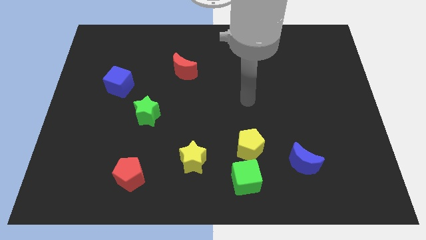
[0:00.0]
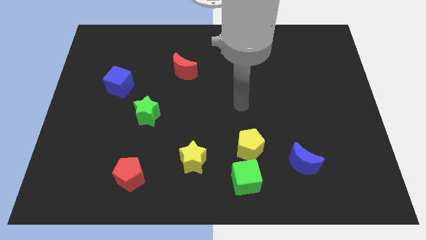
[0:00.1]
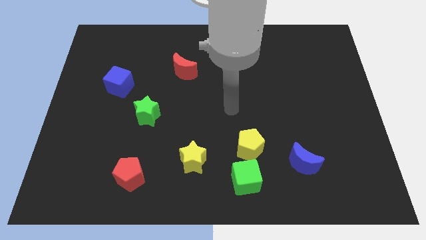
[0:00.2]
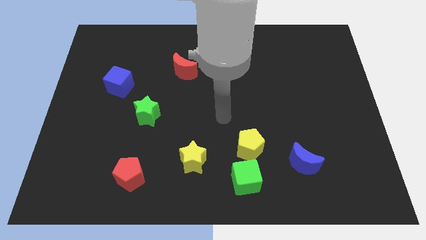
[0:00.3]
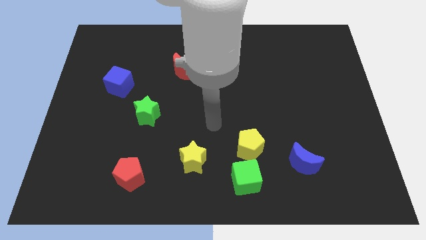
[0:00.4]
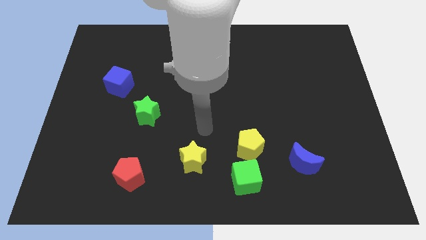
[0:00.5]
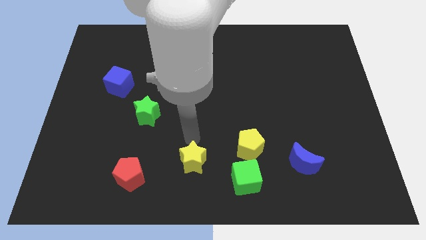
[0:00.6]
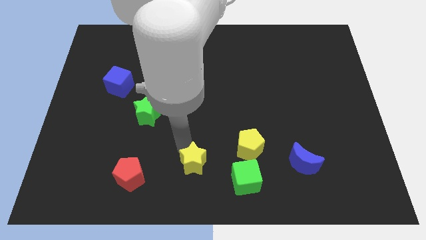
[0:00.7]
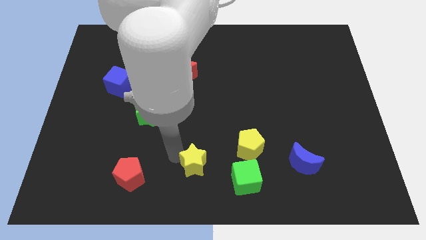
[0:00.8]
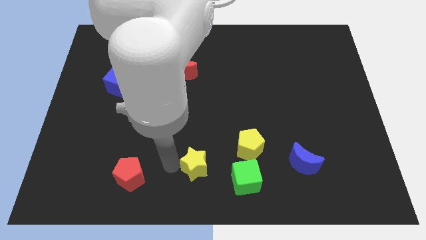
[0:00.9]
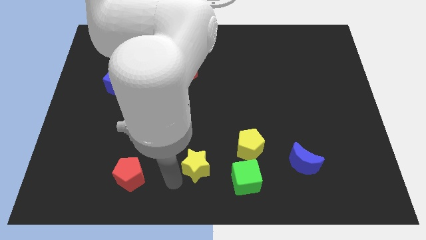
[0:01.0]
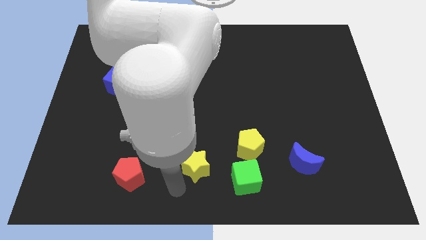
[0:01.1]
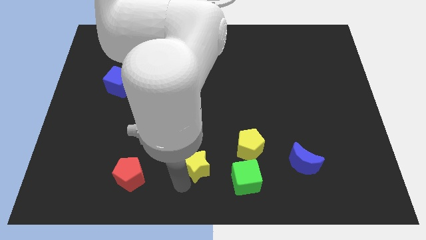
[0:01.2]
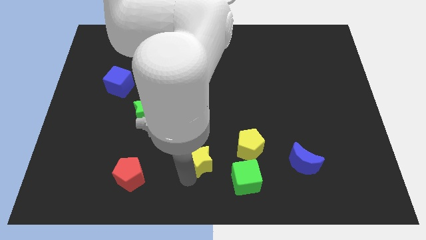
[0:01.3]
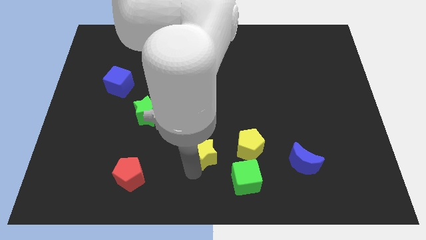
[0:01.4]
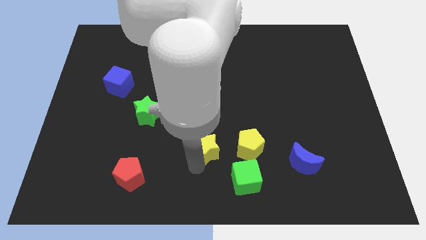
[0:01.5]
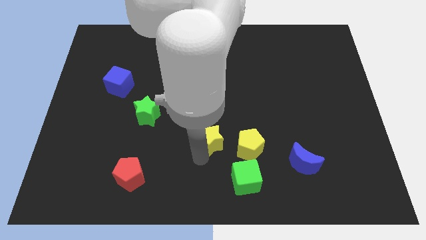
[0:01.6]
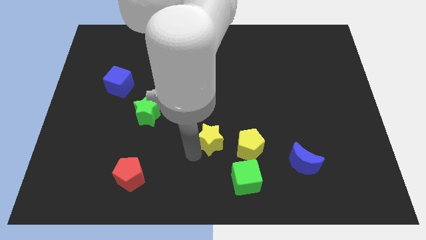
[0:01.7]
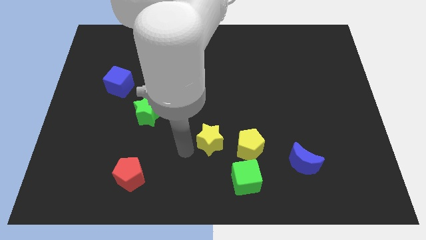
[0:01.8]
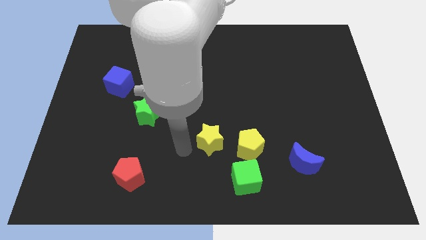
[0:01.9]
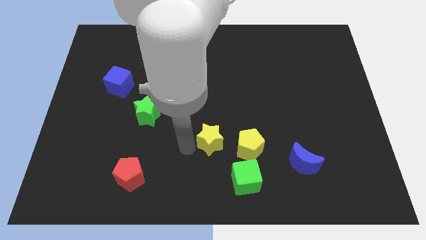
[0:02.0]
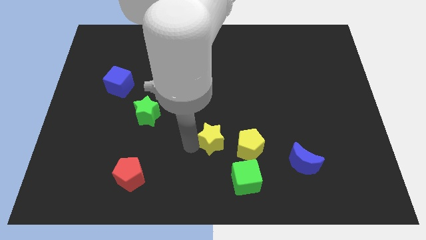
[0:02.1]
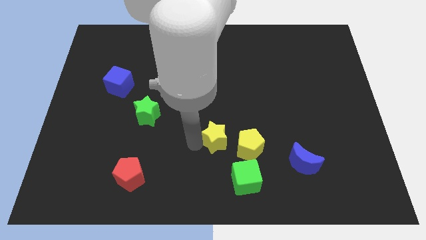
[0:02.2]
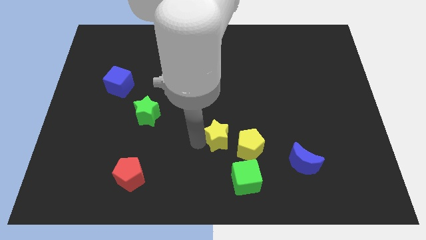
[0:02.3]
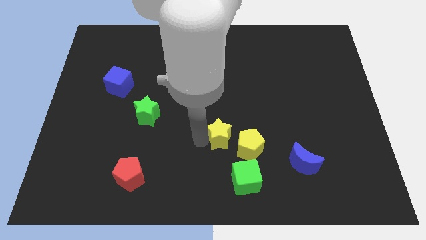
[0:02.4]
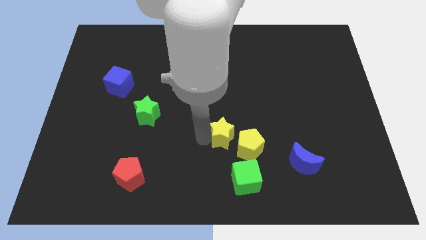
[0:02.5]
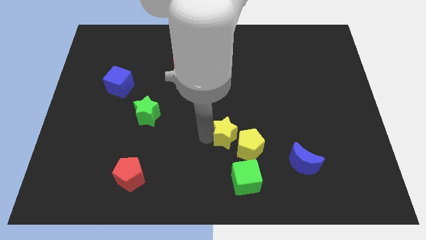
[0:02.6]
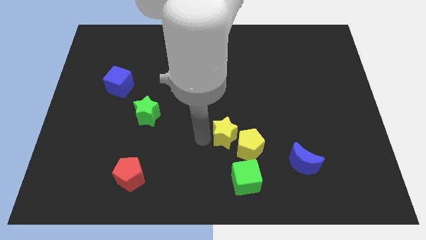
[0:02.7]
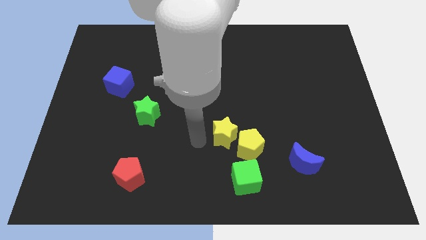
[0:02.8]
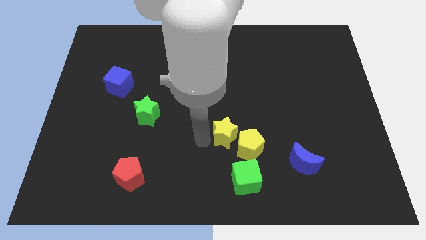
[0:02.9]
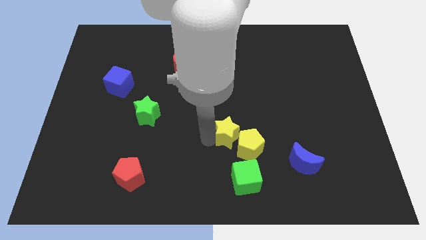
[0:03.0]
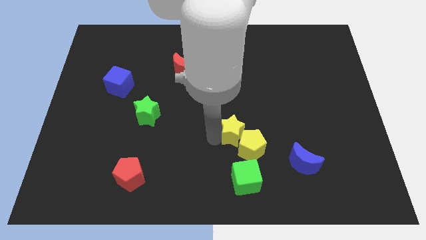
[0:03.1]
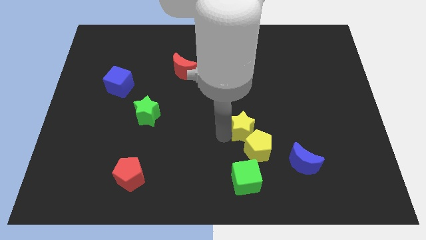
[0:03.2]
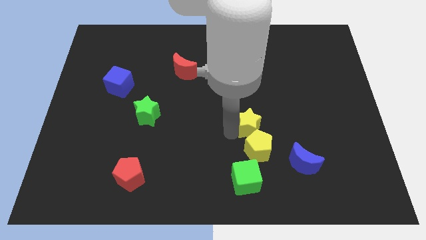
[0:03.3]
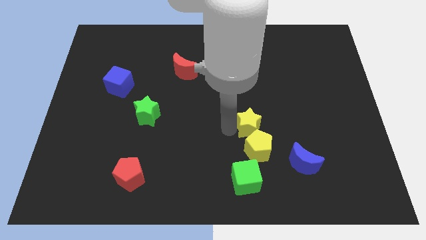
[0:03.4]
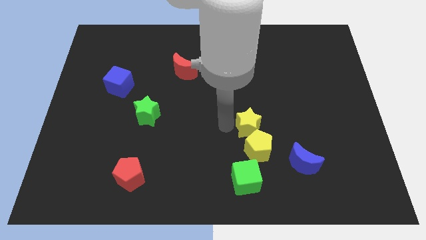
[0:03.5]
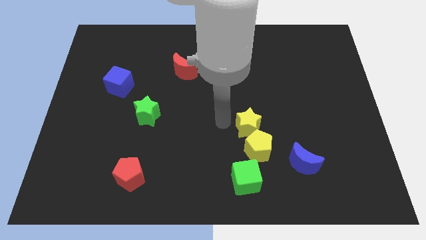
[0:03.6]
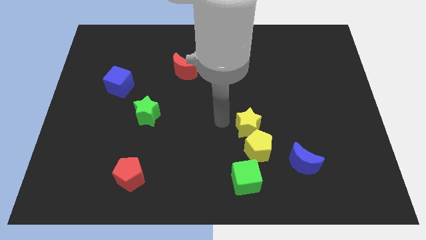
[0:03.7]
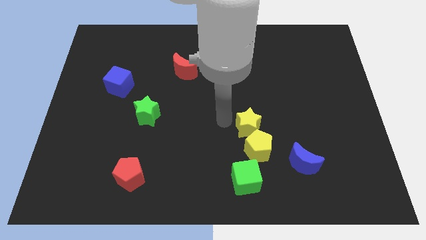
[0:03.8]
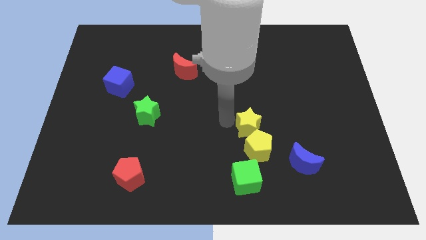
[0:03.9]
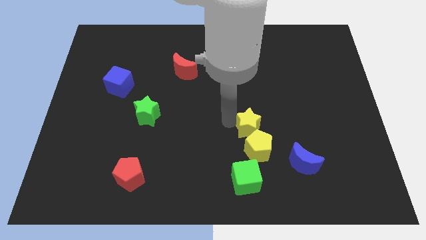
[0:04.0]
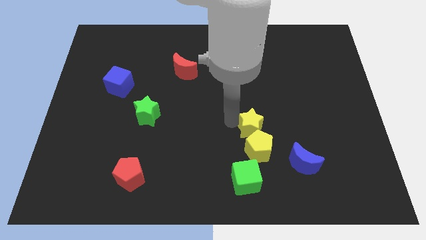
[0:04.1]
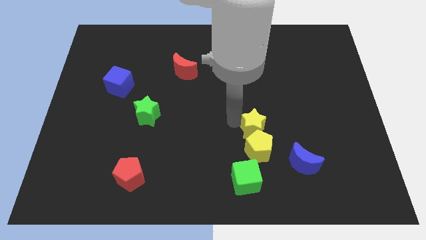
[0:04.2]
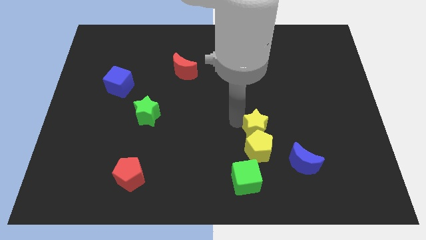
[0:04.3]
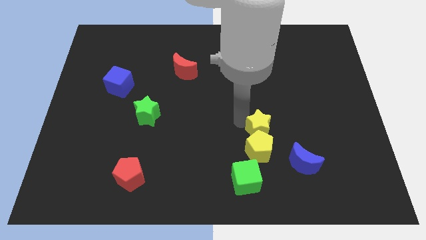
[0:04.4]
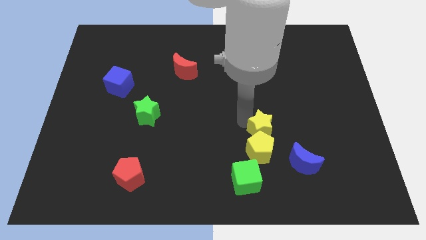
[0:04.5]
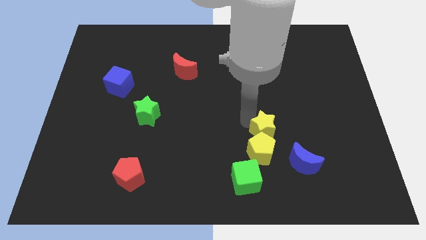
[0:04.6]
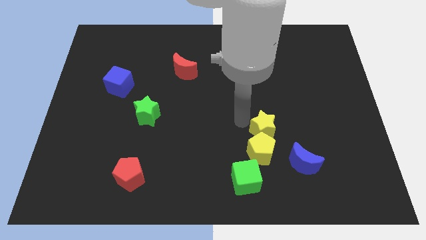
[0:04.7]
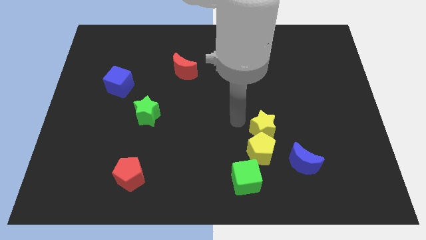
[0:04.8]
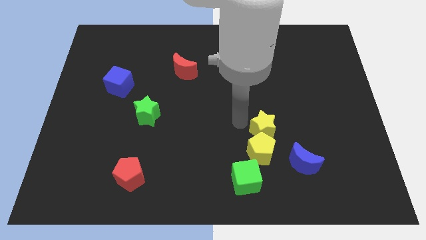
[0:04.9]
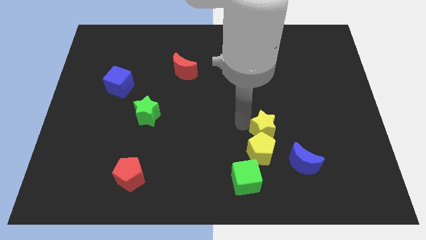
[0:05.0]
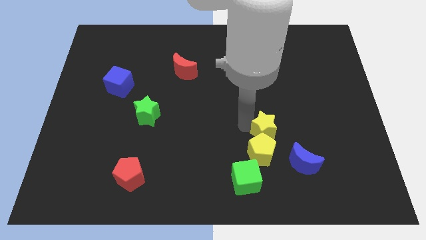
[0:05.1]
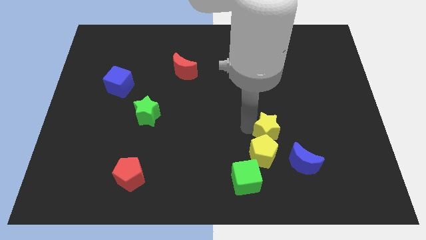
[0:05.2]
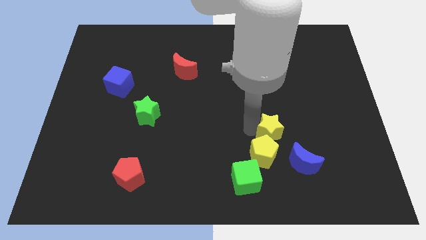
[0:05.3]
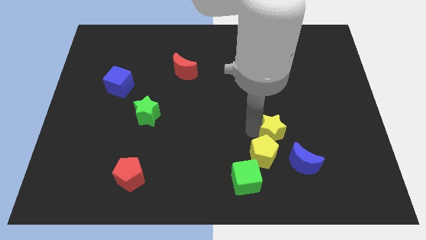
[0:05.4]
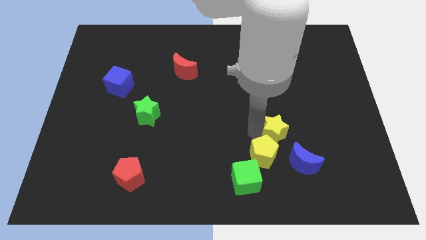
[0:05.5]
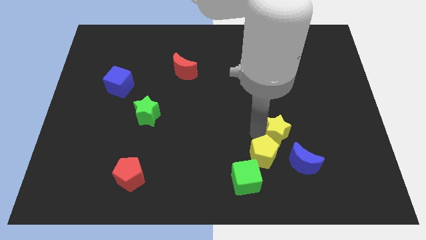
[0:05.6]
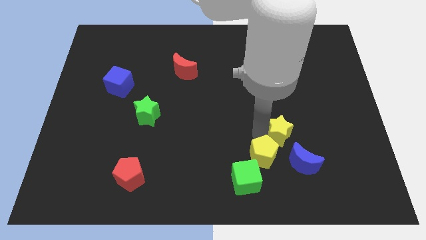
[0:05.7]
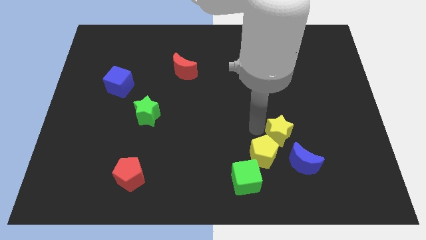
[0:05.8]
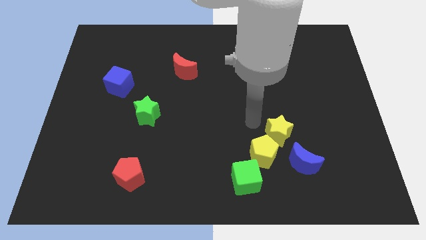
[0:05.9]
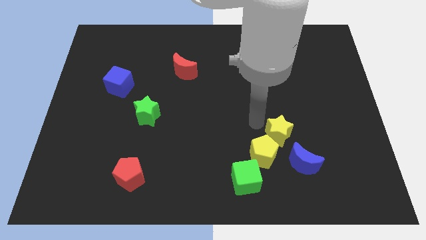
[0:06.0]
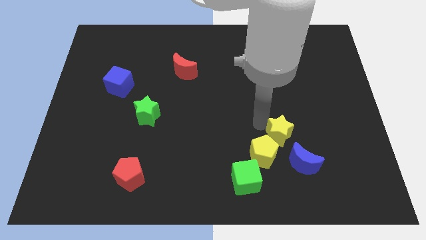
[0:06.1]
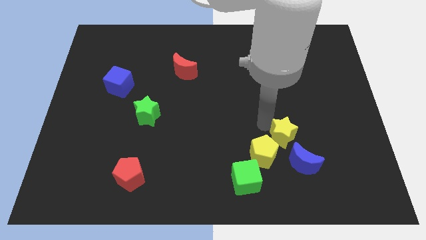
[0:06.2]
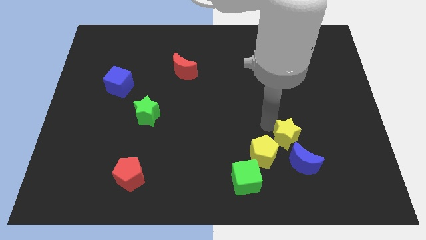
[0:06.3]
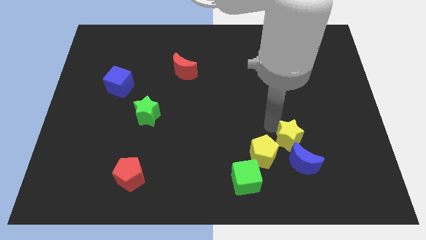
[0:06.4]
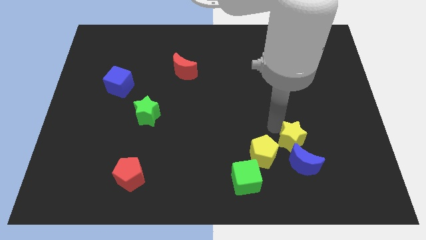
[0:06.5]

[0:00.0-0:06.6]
push the yellow star right

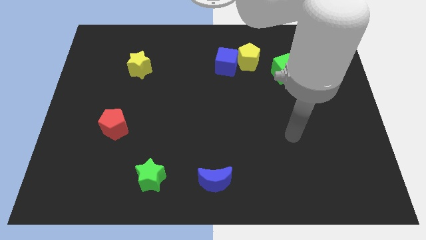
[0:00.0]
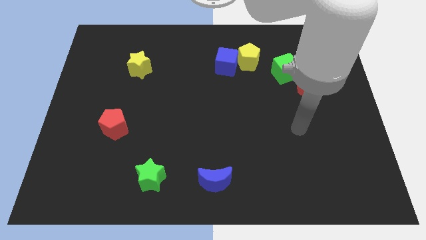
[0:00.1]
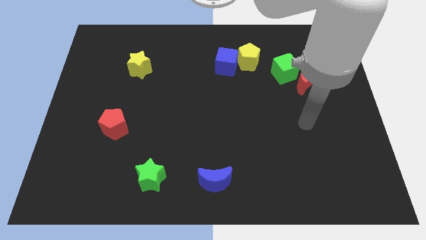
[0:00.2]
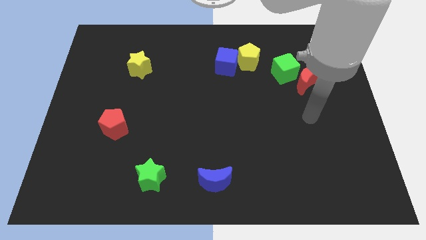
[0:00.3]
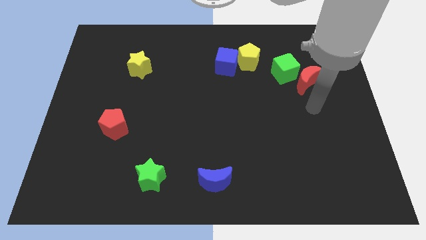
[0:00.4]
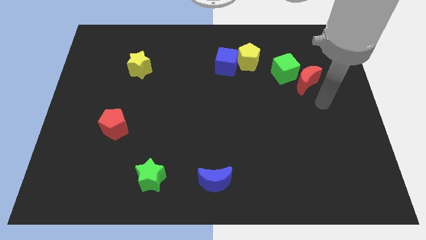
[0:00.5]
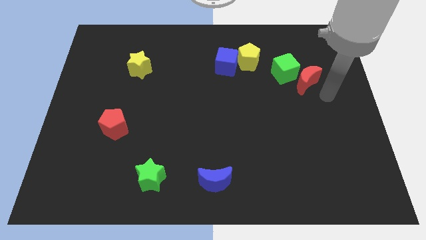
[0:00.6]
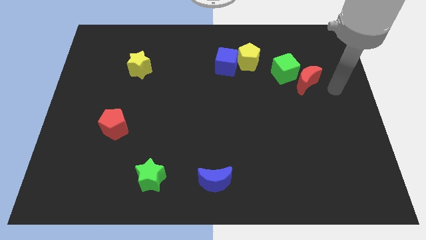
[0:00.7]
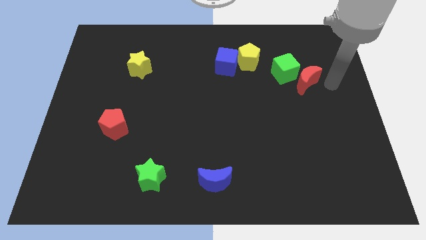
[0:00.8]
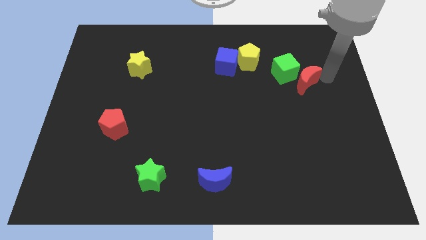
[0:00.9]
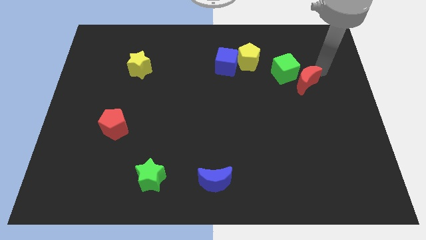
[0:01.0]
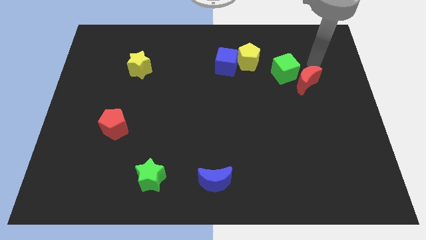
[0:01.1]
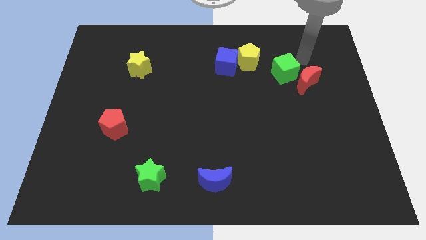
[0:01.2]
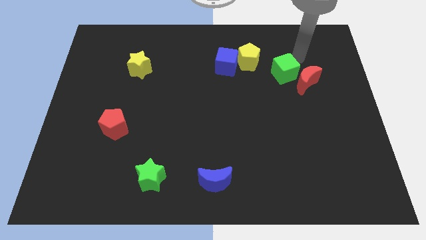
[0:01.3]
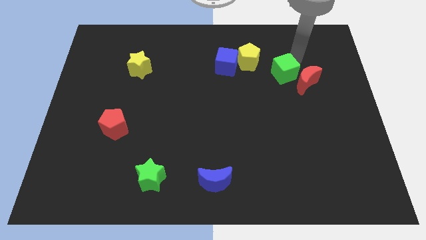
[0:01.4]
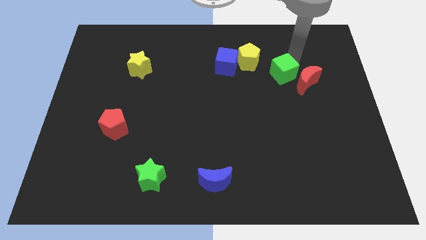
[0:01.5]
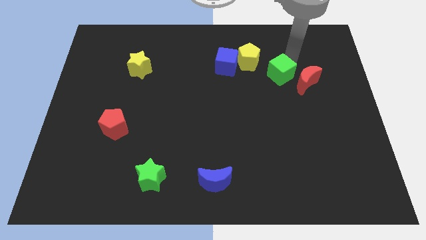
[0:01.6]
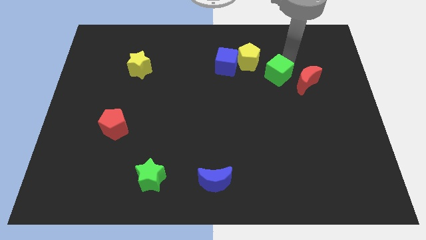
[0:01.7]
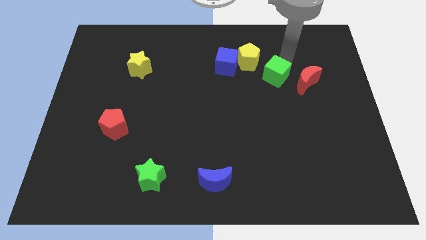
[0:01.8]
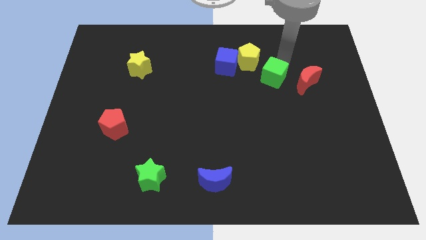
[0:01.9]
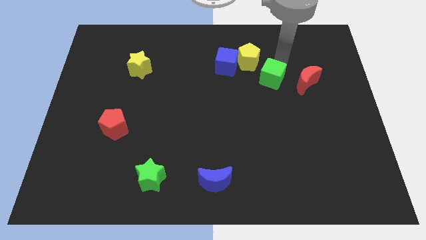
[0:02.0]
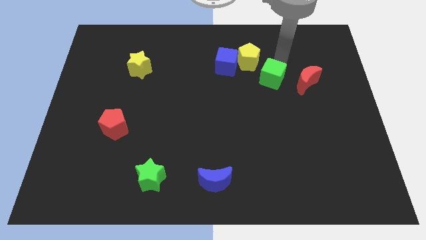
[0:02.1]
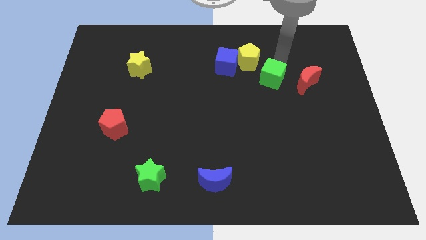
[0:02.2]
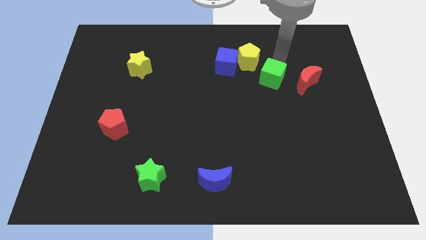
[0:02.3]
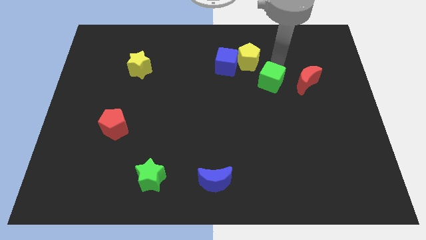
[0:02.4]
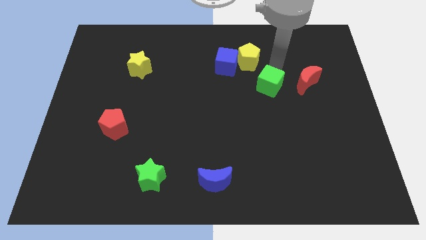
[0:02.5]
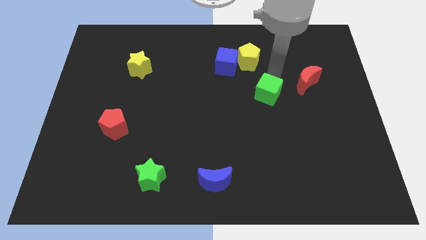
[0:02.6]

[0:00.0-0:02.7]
push the green cube slightly down and left diagonally
